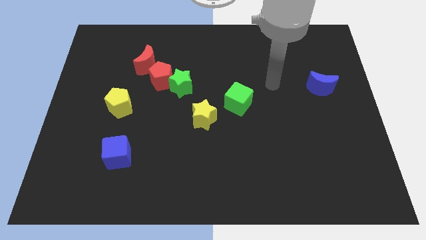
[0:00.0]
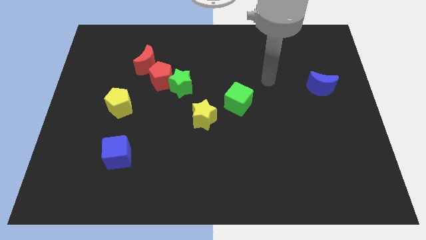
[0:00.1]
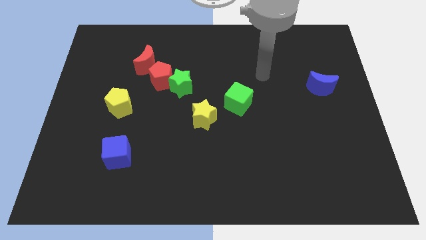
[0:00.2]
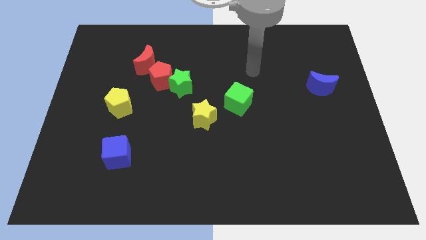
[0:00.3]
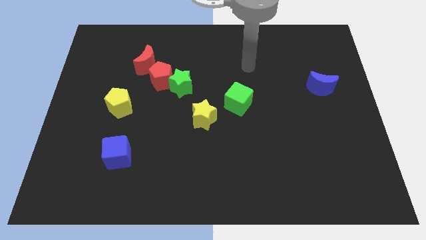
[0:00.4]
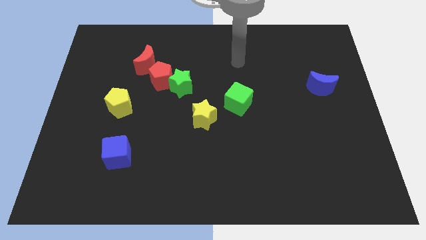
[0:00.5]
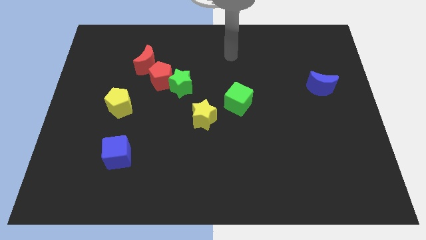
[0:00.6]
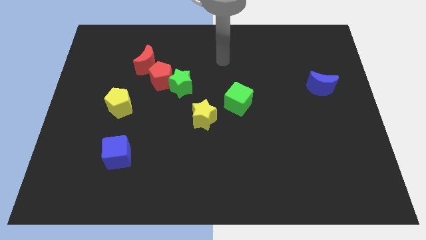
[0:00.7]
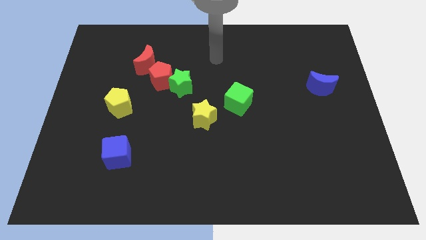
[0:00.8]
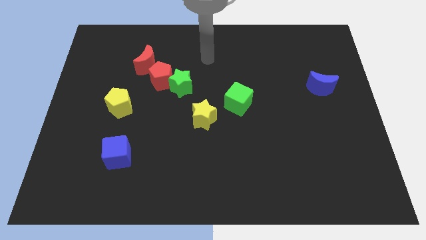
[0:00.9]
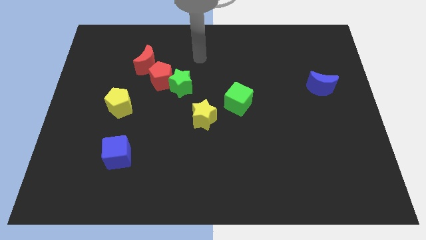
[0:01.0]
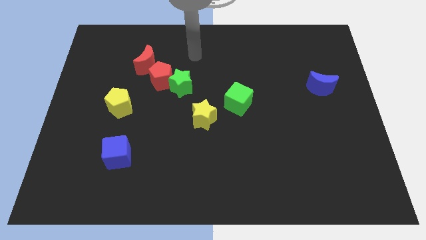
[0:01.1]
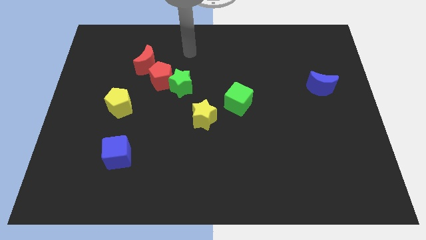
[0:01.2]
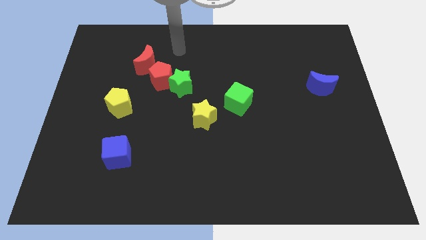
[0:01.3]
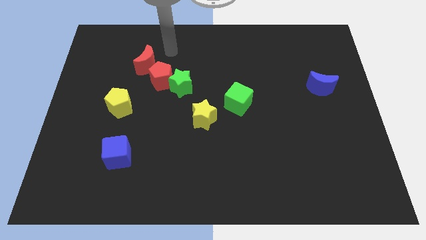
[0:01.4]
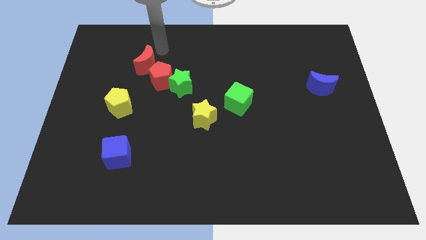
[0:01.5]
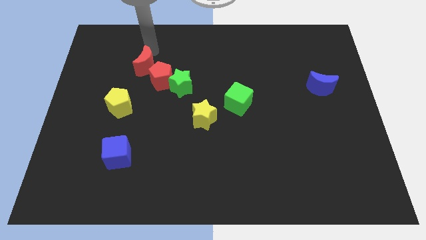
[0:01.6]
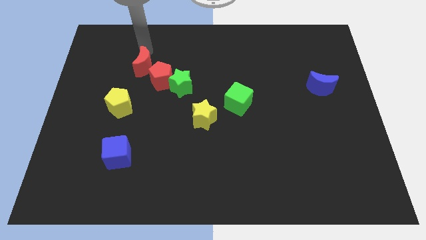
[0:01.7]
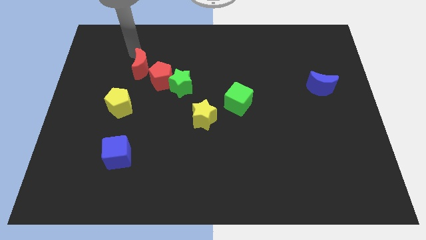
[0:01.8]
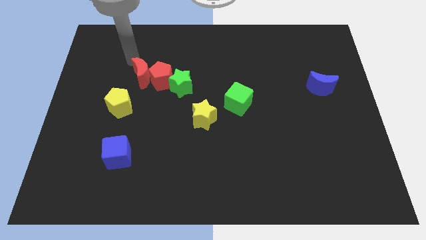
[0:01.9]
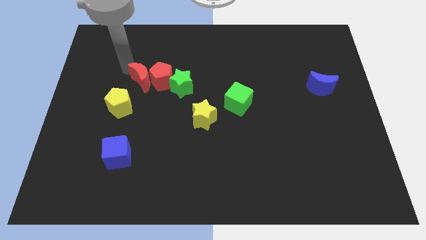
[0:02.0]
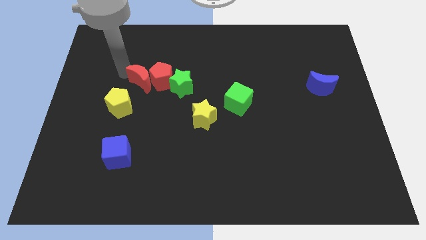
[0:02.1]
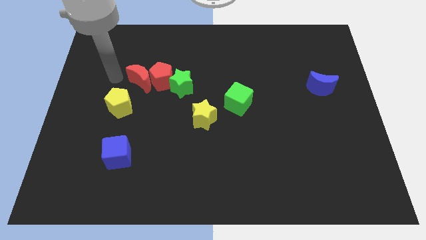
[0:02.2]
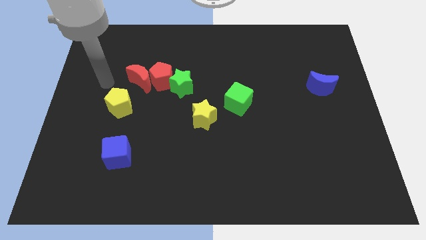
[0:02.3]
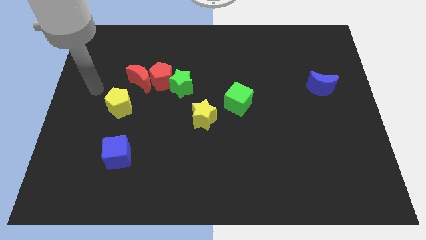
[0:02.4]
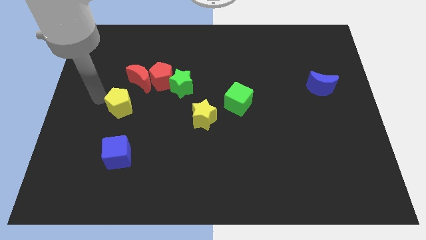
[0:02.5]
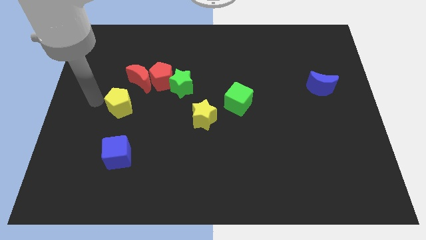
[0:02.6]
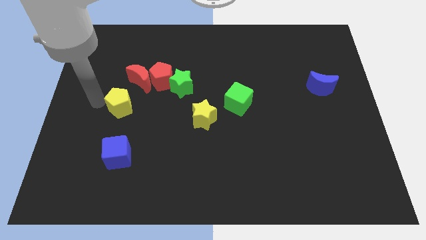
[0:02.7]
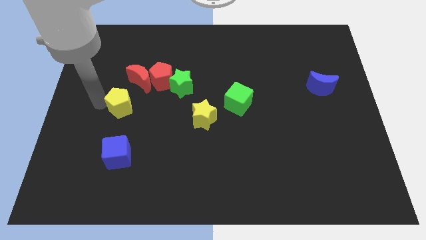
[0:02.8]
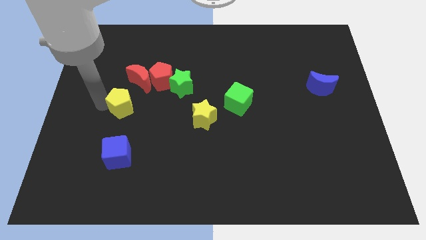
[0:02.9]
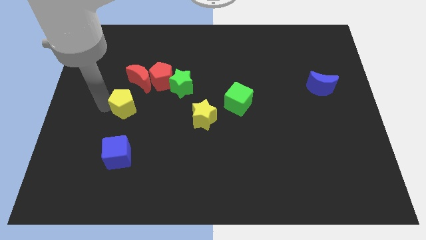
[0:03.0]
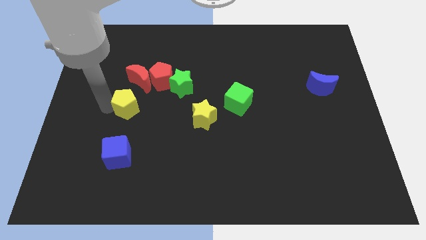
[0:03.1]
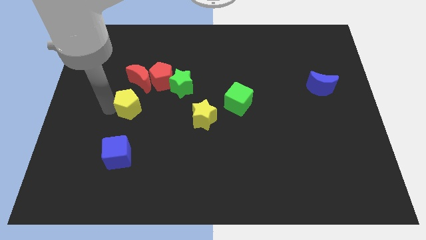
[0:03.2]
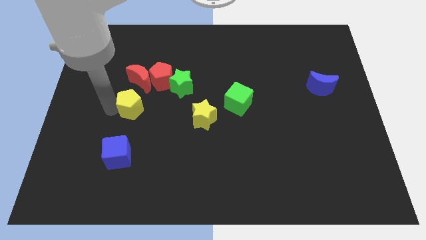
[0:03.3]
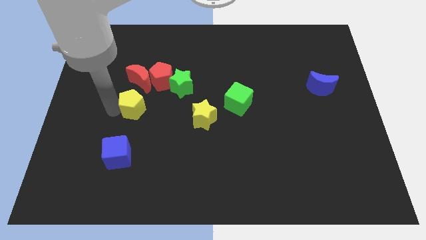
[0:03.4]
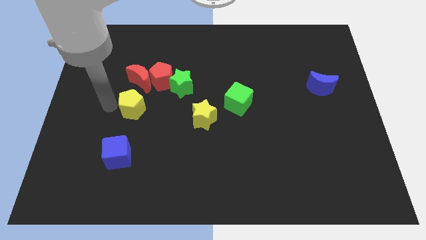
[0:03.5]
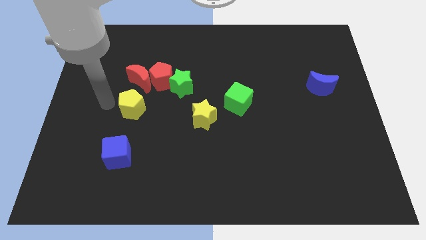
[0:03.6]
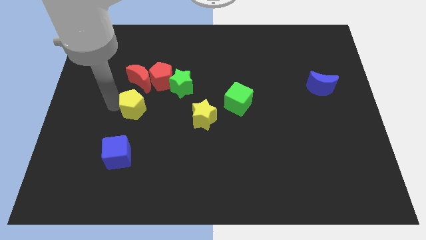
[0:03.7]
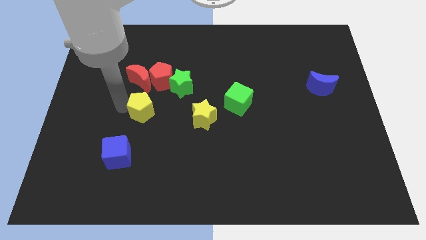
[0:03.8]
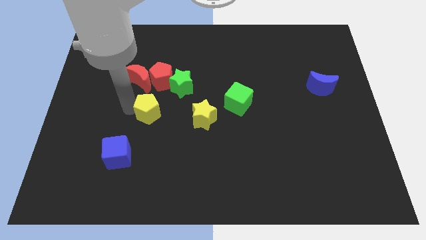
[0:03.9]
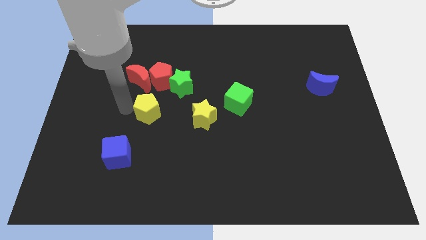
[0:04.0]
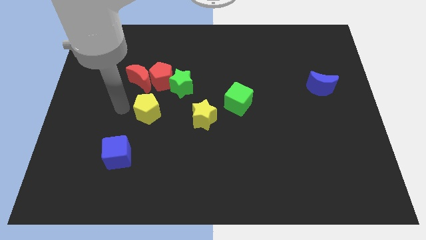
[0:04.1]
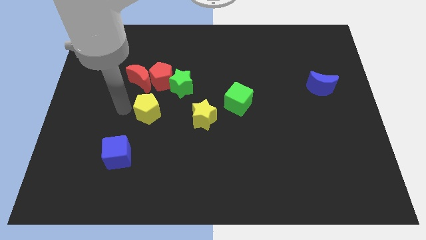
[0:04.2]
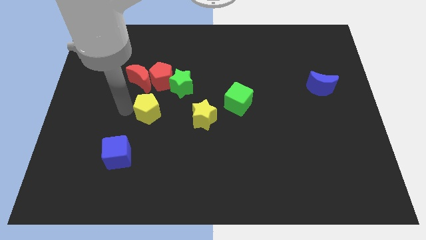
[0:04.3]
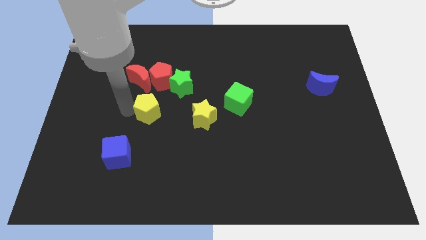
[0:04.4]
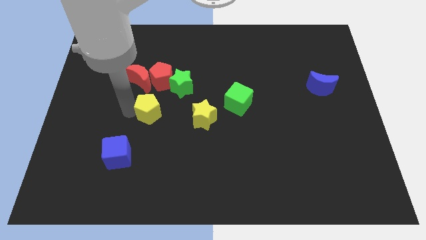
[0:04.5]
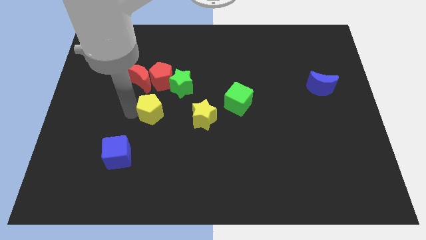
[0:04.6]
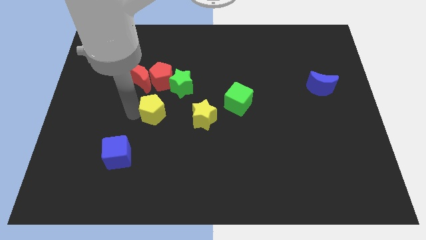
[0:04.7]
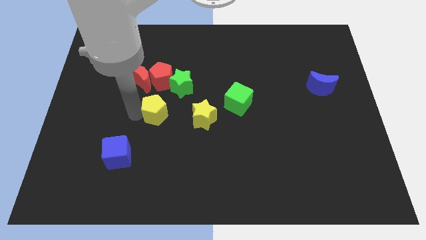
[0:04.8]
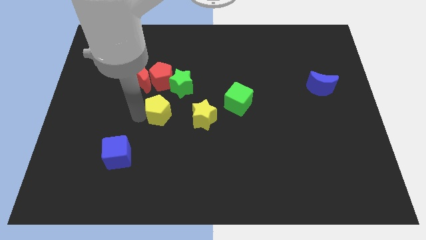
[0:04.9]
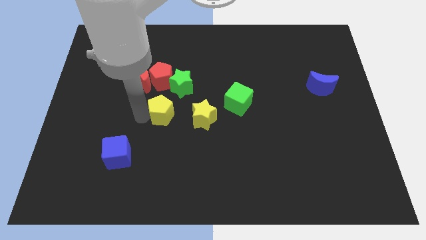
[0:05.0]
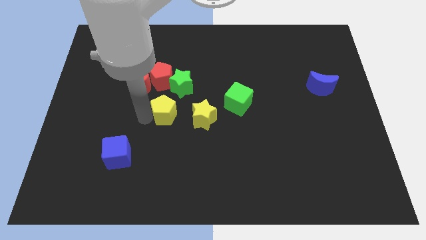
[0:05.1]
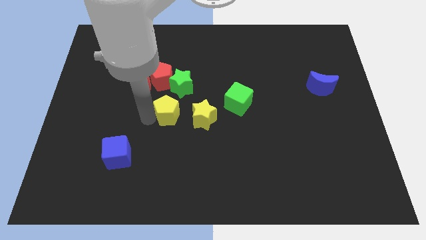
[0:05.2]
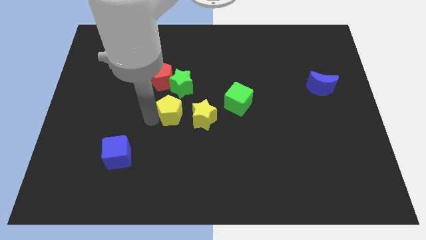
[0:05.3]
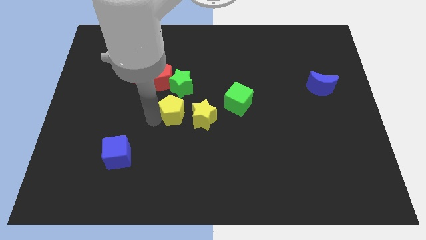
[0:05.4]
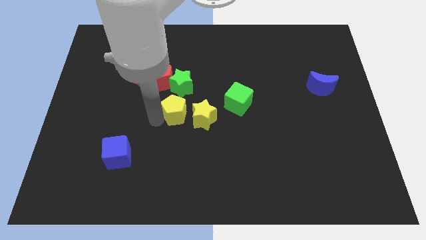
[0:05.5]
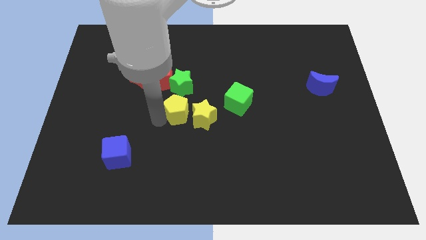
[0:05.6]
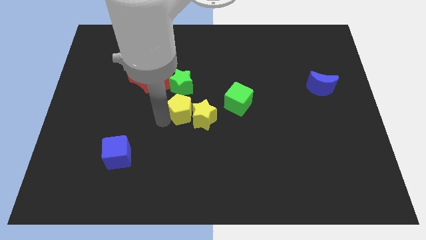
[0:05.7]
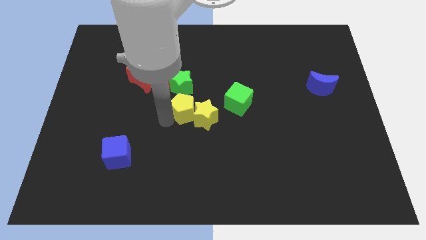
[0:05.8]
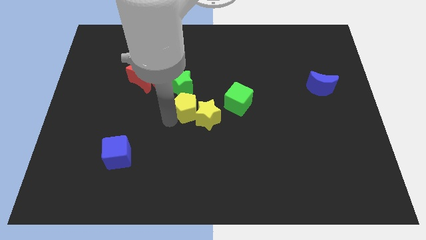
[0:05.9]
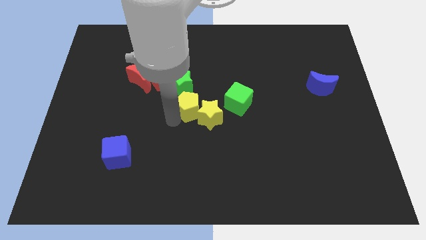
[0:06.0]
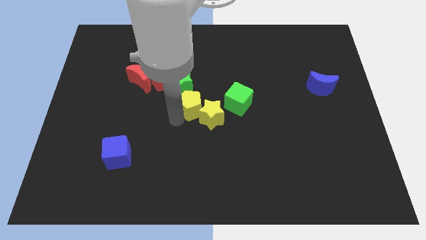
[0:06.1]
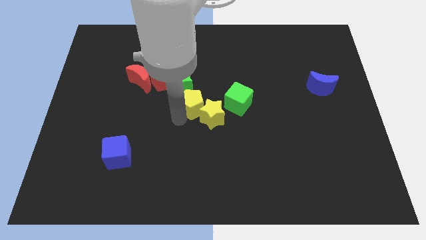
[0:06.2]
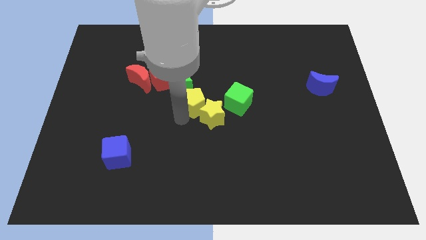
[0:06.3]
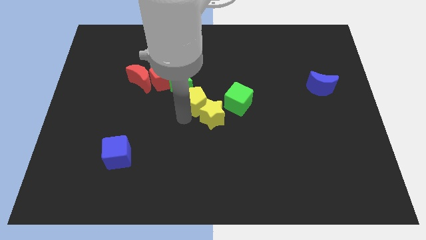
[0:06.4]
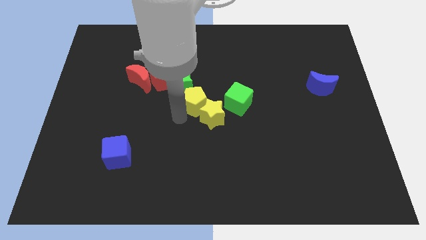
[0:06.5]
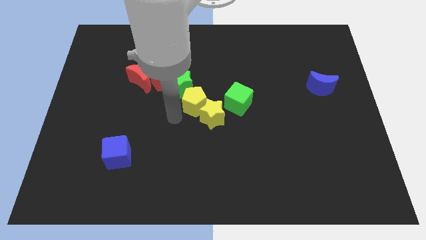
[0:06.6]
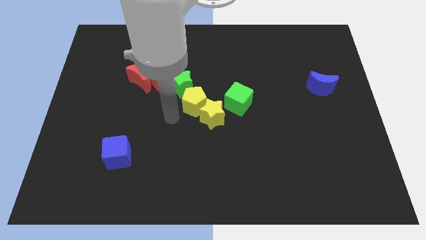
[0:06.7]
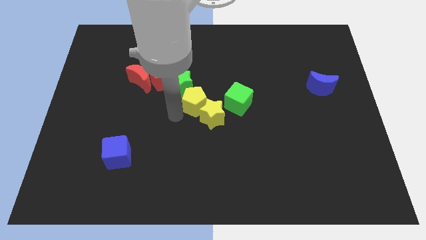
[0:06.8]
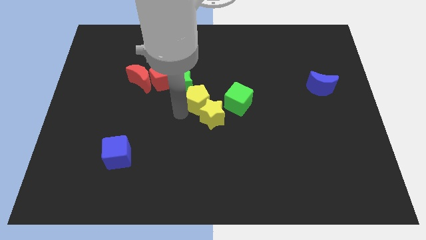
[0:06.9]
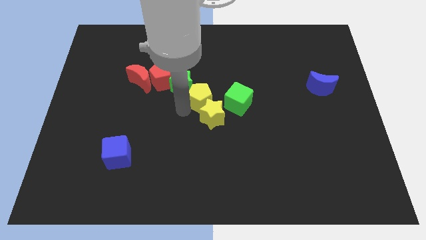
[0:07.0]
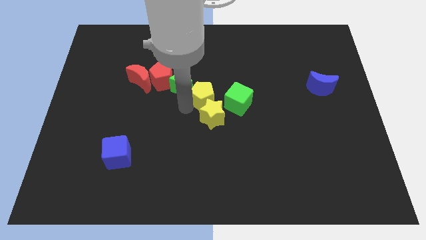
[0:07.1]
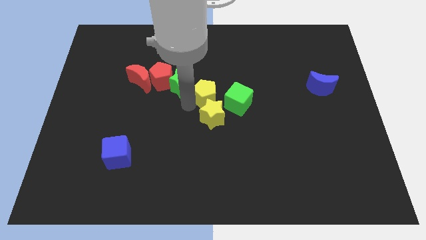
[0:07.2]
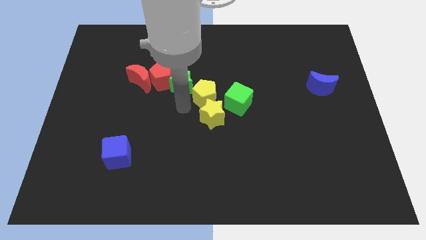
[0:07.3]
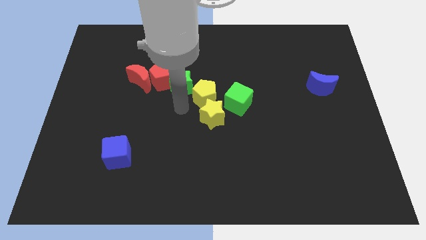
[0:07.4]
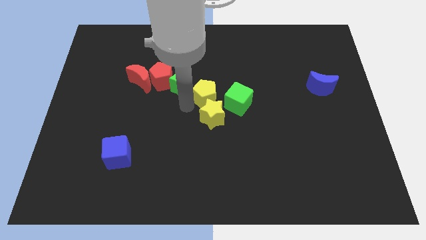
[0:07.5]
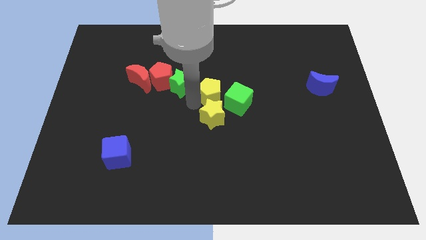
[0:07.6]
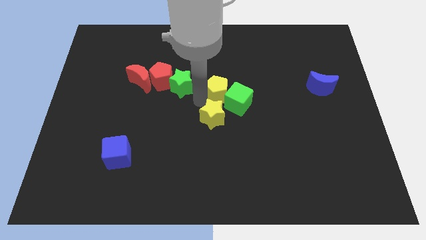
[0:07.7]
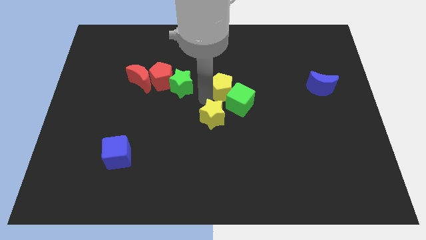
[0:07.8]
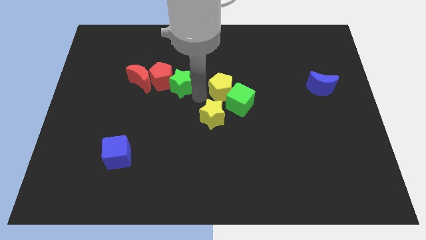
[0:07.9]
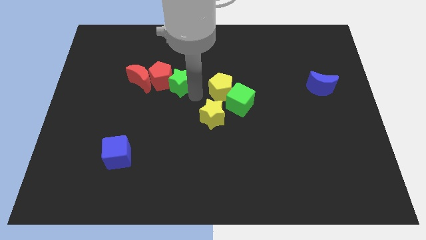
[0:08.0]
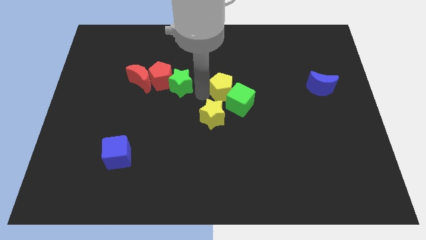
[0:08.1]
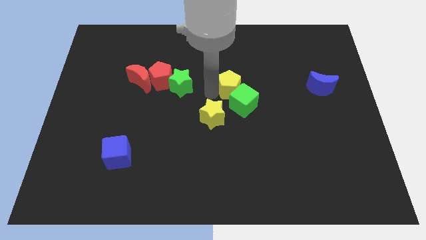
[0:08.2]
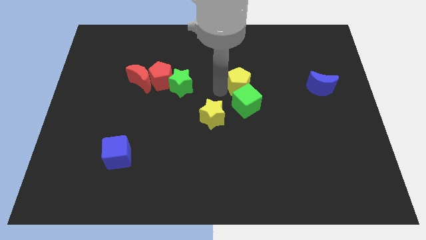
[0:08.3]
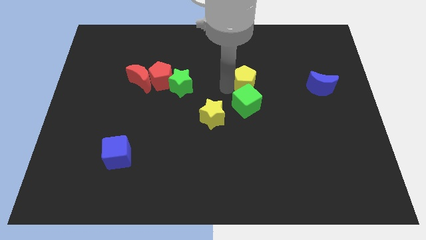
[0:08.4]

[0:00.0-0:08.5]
move the yellow pentagon diagonally up and to the right of the green cube
